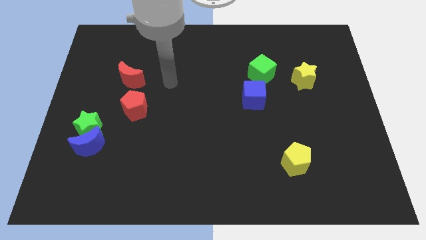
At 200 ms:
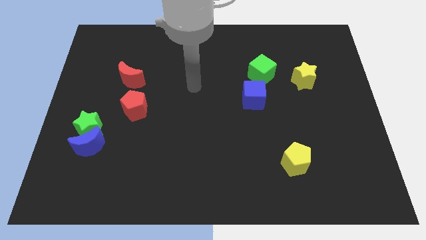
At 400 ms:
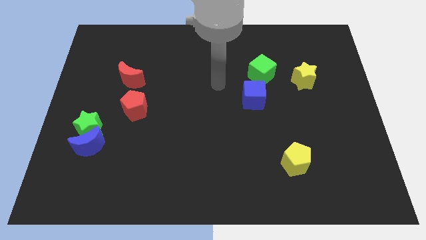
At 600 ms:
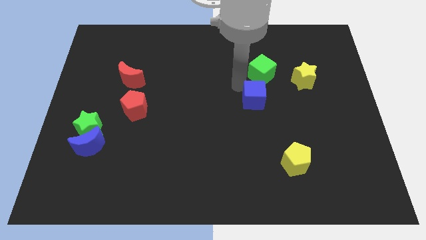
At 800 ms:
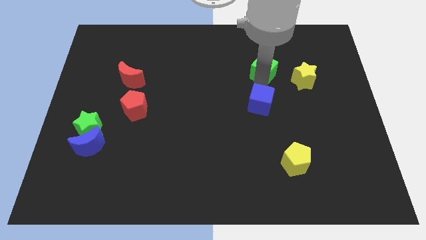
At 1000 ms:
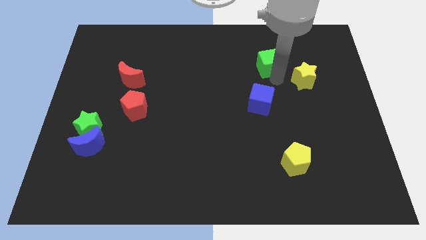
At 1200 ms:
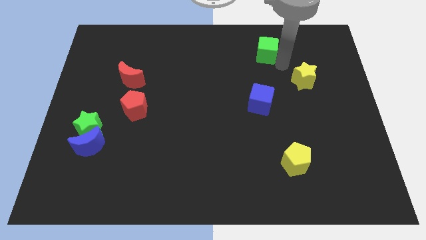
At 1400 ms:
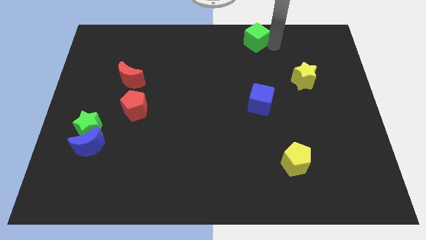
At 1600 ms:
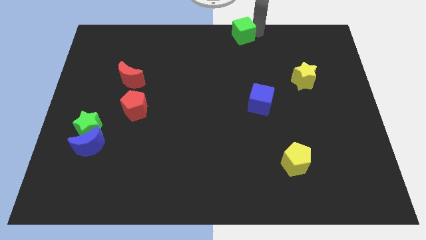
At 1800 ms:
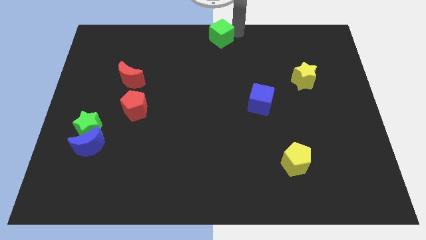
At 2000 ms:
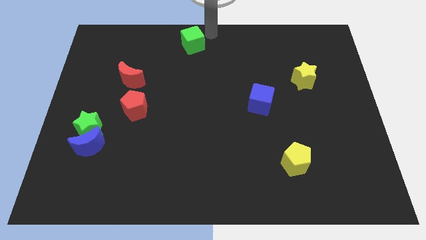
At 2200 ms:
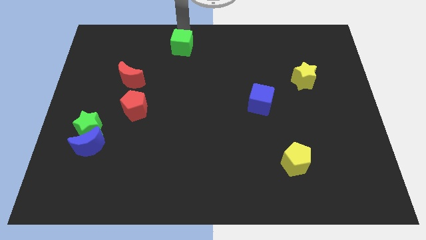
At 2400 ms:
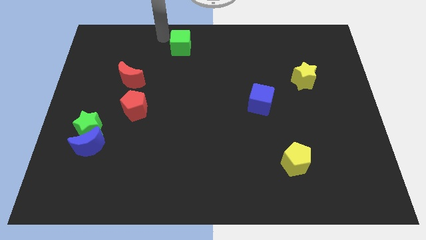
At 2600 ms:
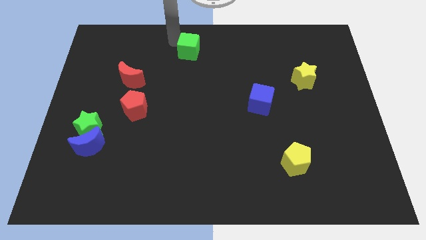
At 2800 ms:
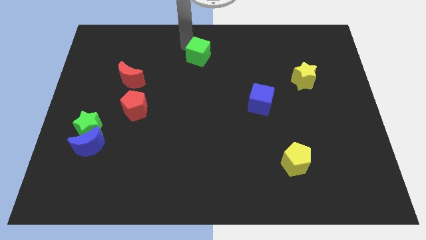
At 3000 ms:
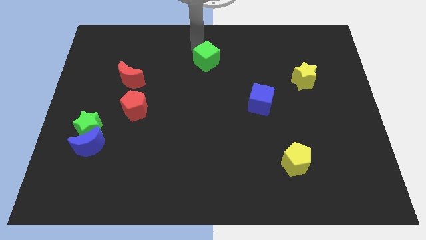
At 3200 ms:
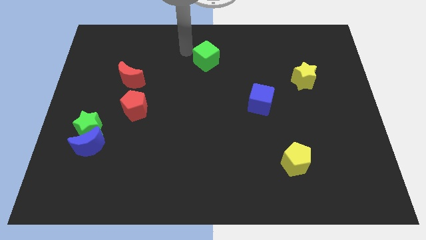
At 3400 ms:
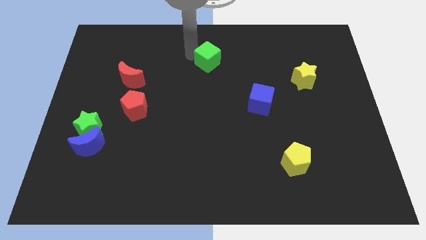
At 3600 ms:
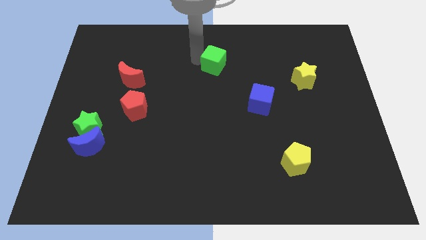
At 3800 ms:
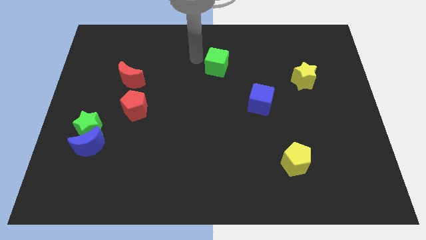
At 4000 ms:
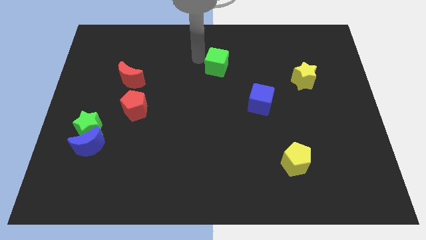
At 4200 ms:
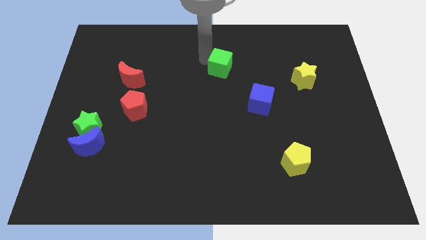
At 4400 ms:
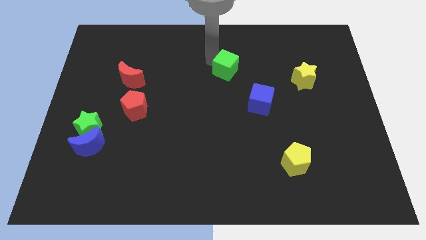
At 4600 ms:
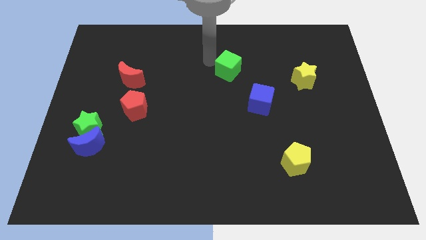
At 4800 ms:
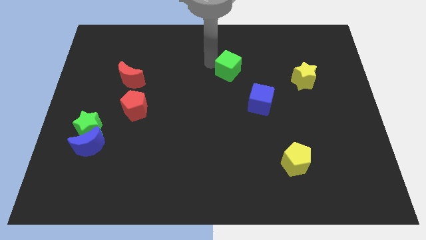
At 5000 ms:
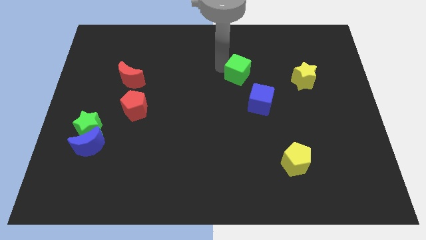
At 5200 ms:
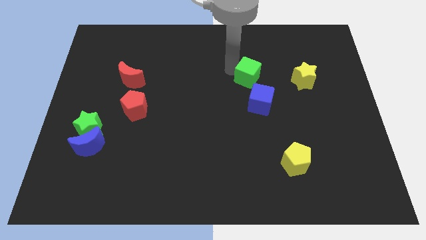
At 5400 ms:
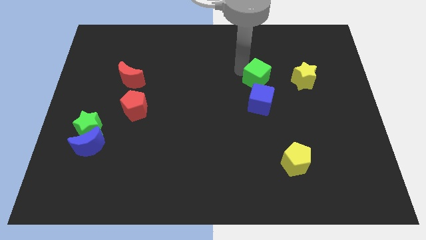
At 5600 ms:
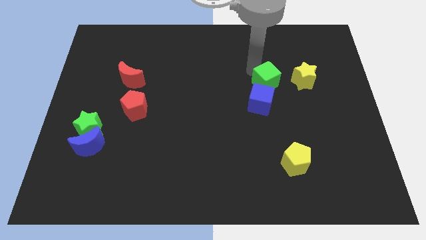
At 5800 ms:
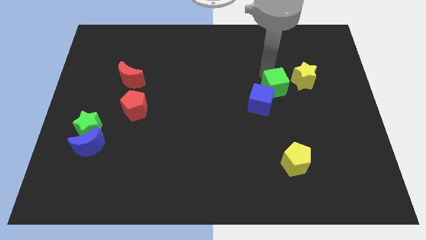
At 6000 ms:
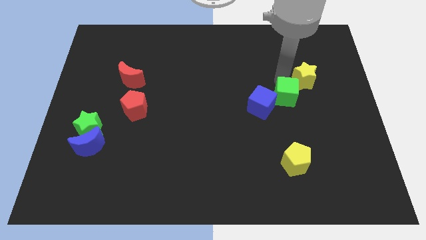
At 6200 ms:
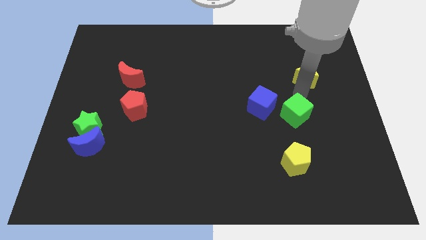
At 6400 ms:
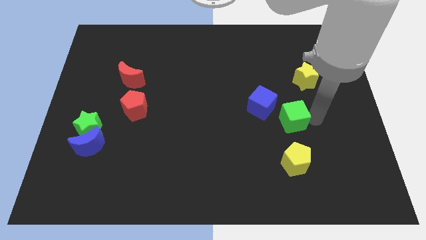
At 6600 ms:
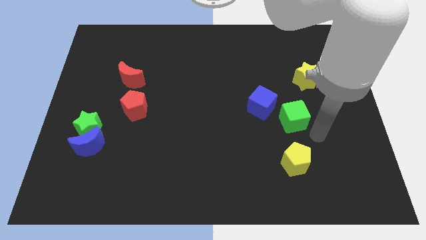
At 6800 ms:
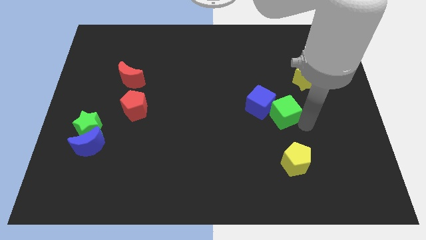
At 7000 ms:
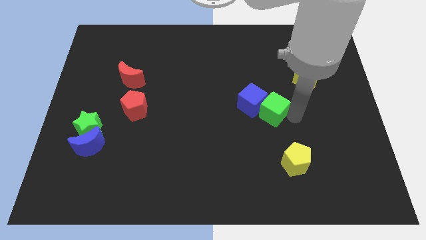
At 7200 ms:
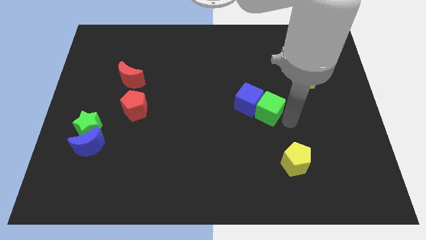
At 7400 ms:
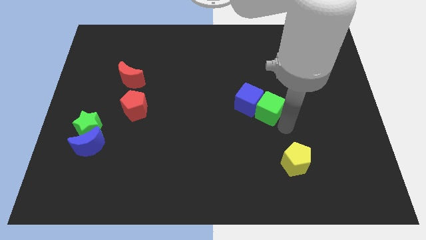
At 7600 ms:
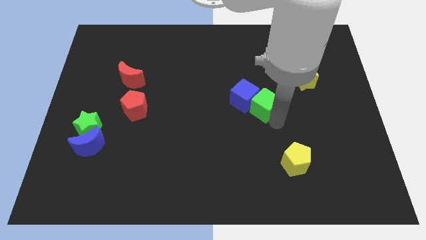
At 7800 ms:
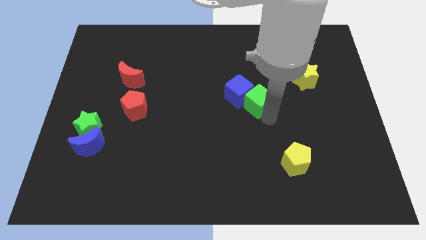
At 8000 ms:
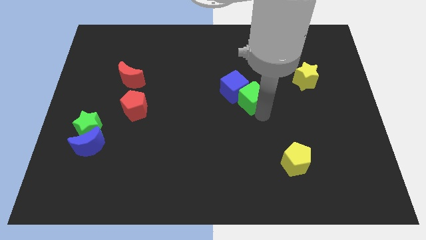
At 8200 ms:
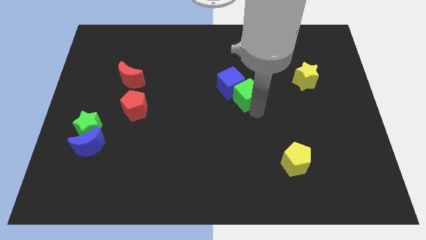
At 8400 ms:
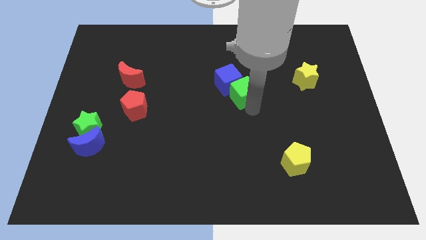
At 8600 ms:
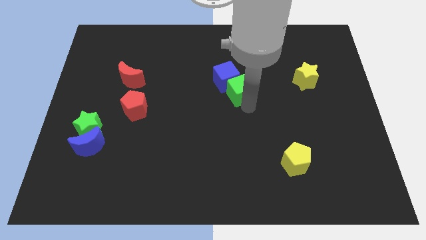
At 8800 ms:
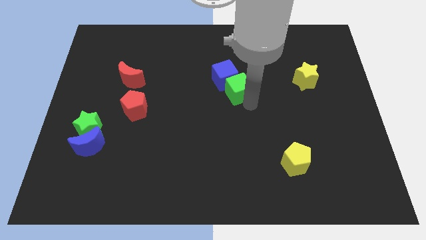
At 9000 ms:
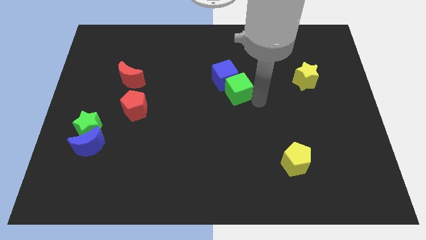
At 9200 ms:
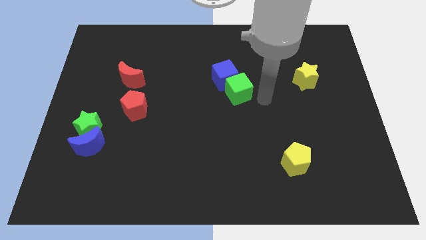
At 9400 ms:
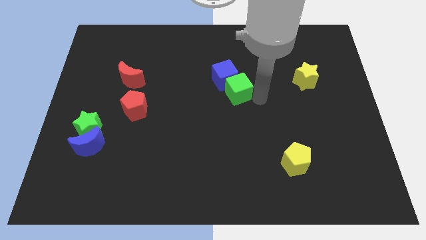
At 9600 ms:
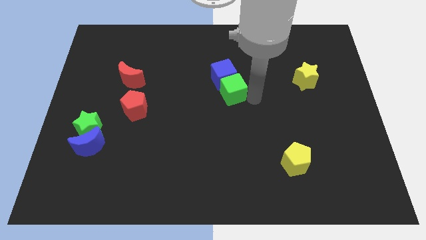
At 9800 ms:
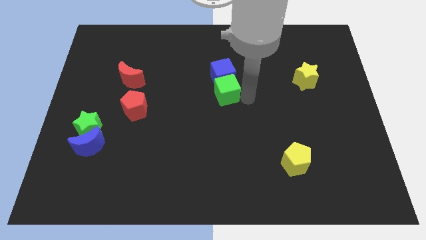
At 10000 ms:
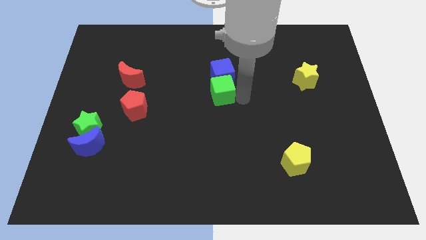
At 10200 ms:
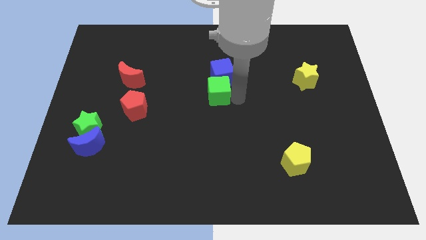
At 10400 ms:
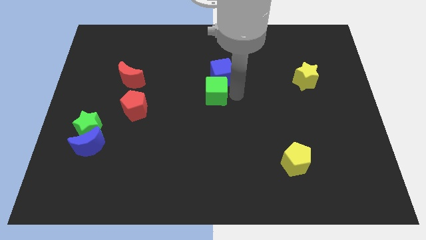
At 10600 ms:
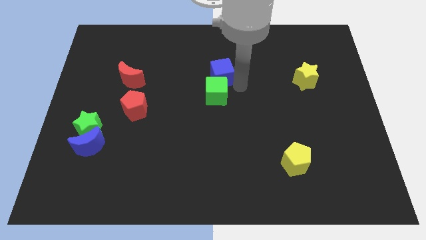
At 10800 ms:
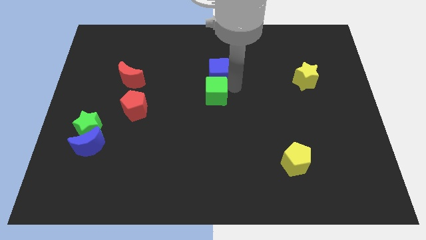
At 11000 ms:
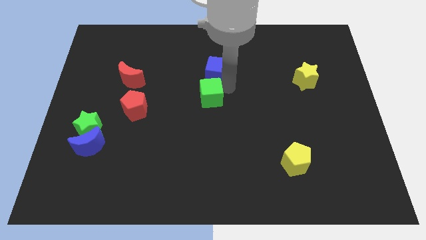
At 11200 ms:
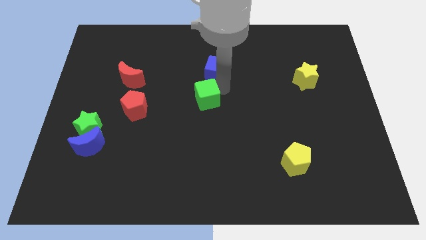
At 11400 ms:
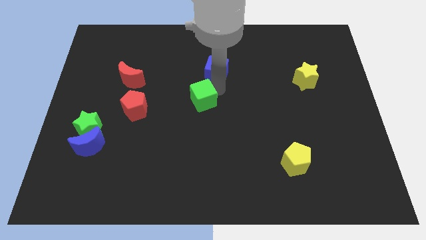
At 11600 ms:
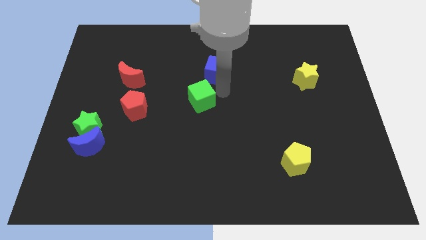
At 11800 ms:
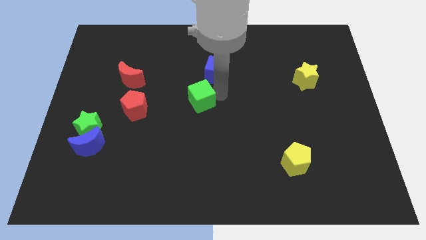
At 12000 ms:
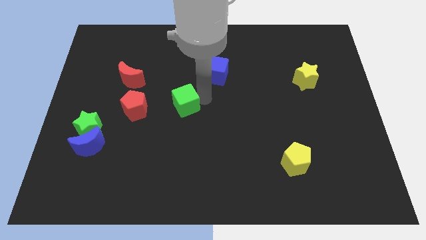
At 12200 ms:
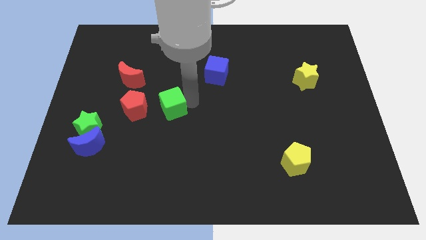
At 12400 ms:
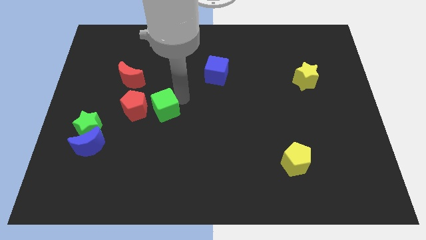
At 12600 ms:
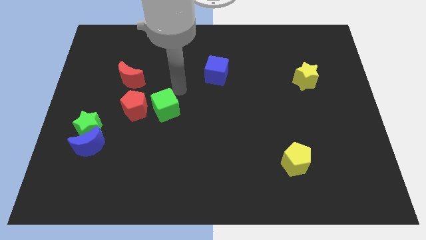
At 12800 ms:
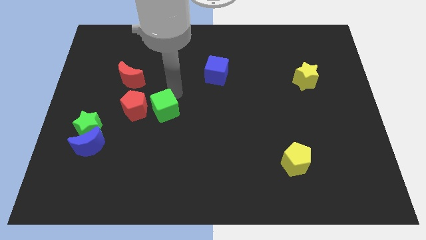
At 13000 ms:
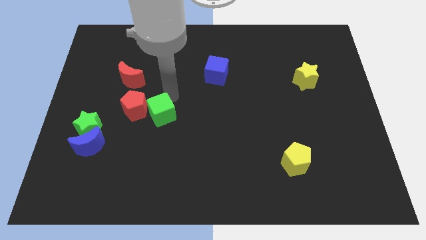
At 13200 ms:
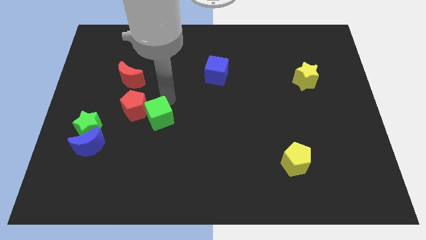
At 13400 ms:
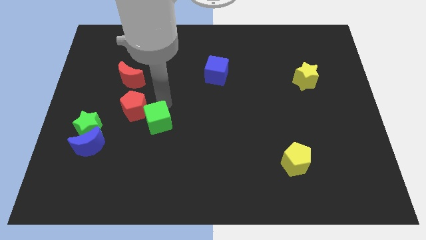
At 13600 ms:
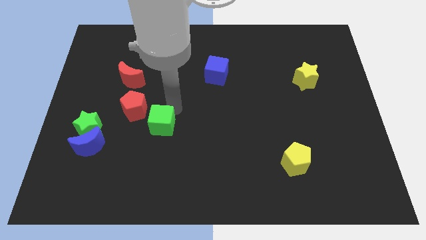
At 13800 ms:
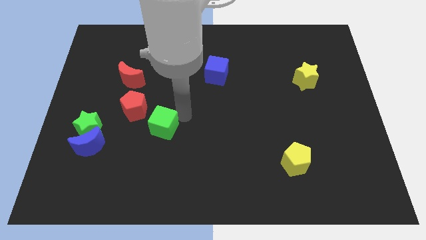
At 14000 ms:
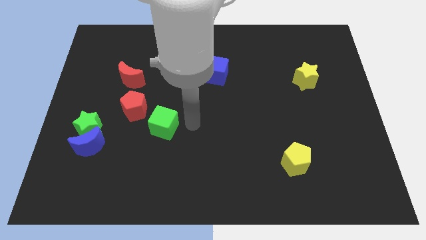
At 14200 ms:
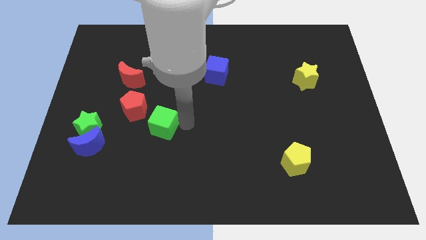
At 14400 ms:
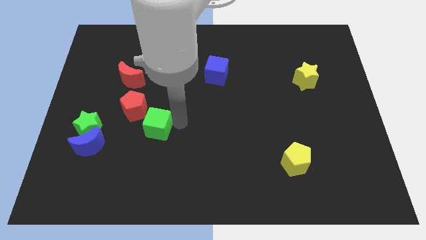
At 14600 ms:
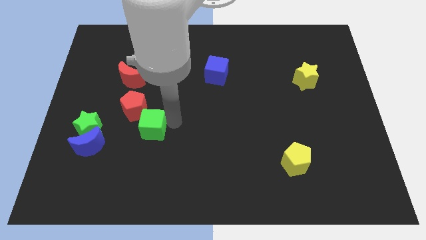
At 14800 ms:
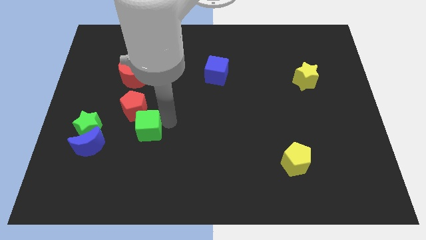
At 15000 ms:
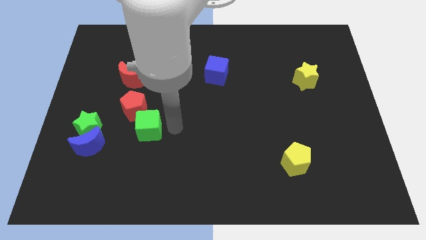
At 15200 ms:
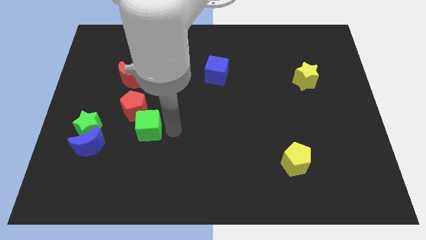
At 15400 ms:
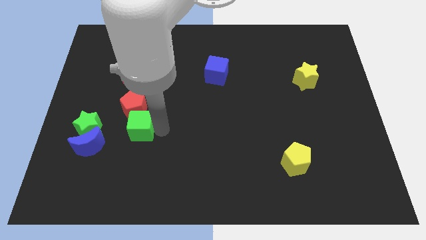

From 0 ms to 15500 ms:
move the green cube diagonally up and to the right of the blue moon

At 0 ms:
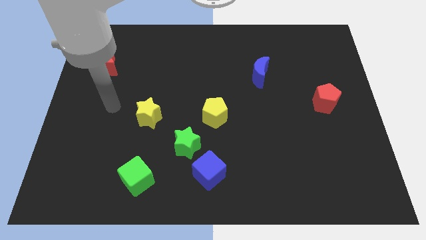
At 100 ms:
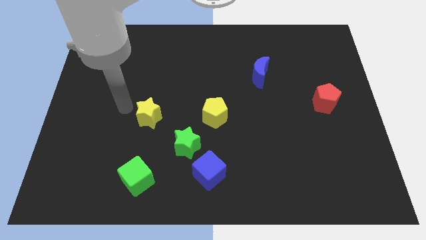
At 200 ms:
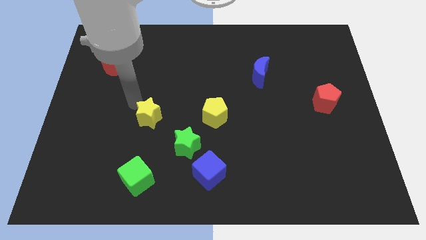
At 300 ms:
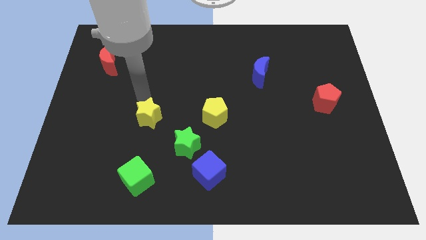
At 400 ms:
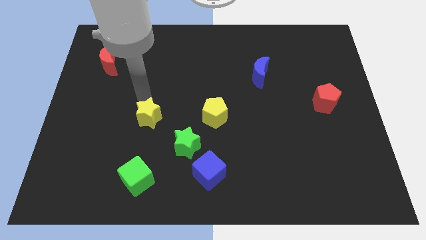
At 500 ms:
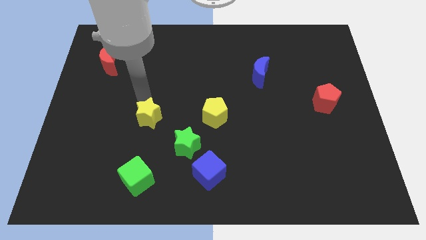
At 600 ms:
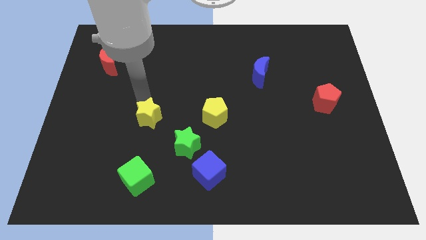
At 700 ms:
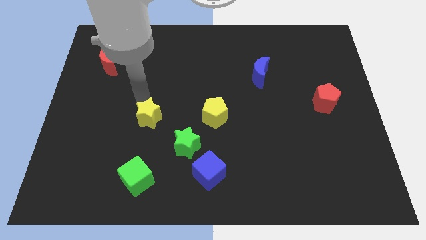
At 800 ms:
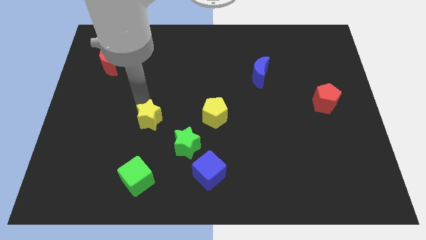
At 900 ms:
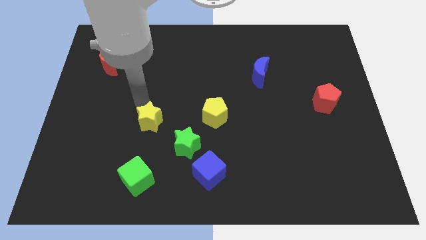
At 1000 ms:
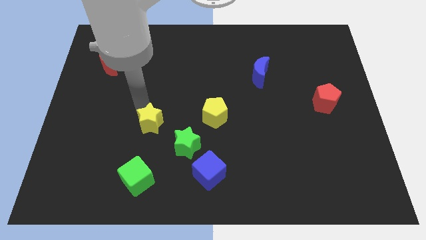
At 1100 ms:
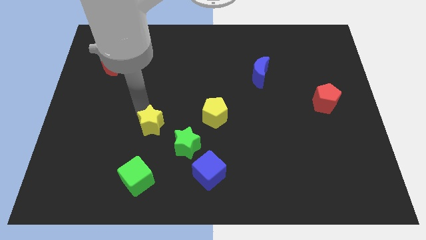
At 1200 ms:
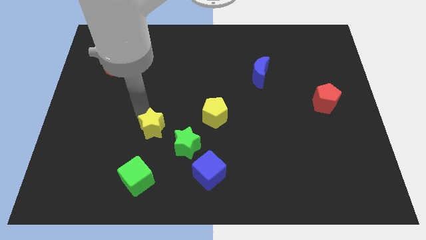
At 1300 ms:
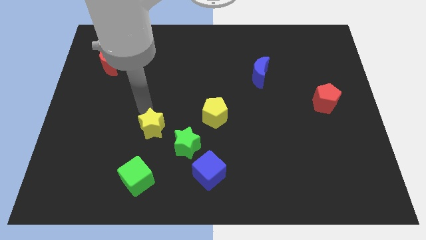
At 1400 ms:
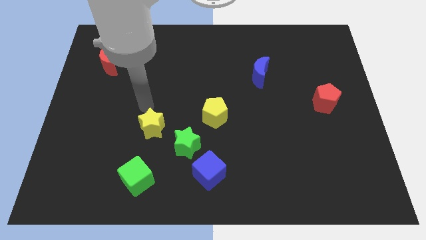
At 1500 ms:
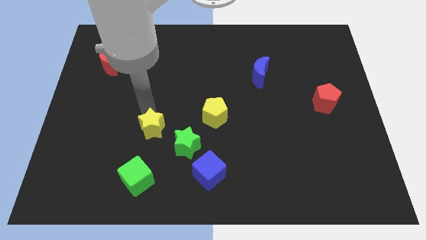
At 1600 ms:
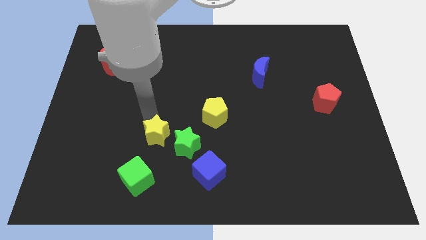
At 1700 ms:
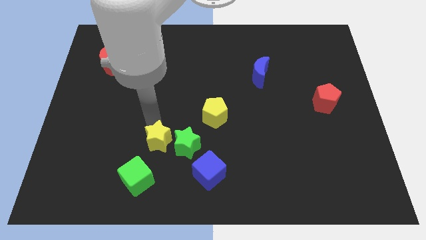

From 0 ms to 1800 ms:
push the yellow star to the top right side of the green cube
